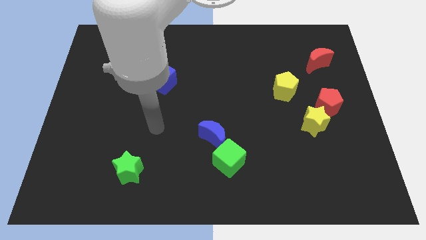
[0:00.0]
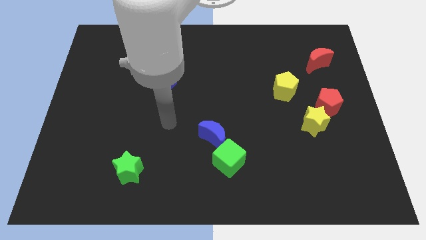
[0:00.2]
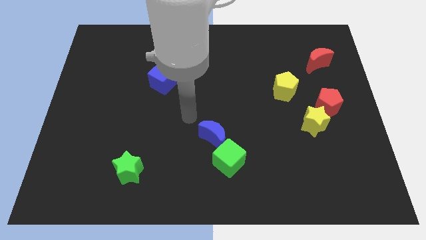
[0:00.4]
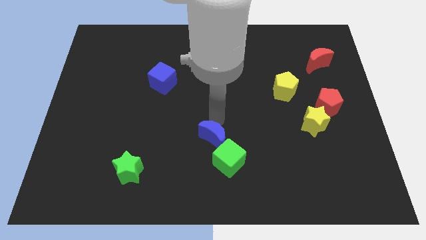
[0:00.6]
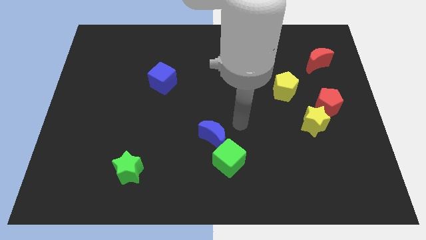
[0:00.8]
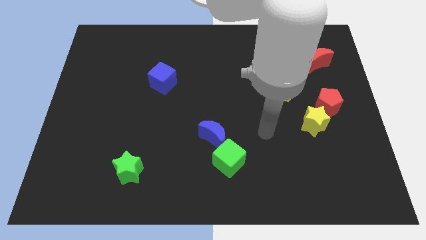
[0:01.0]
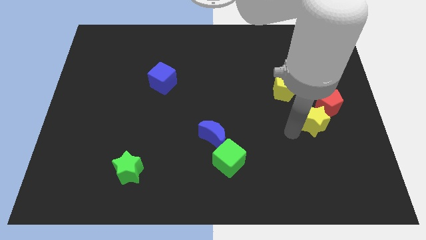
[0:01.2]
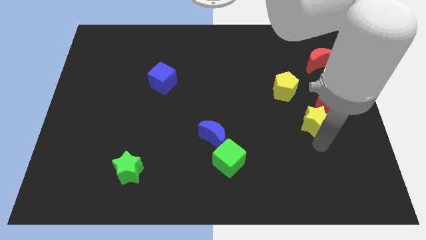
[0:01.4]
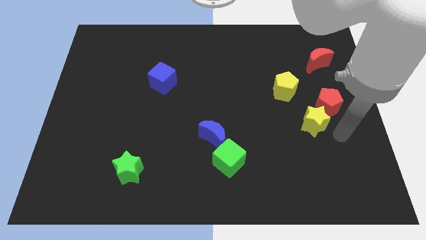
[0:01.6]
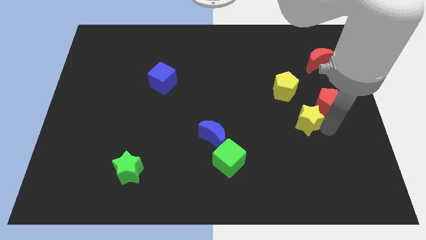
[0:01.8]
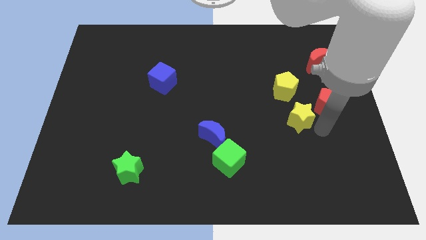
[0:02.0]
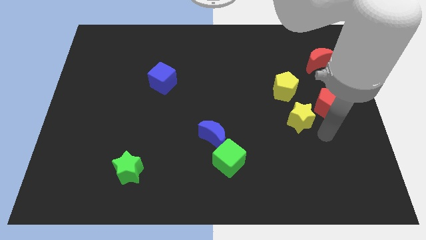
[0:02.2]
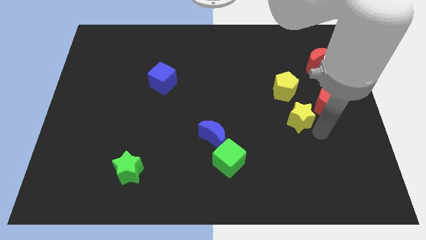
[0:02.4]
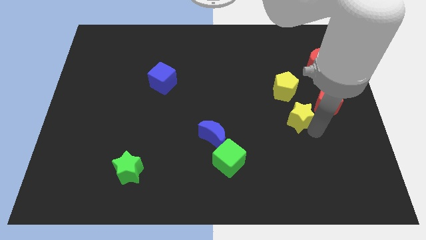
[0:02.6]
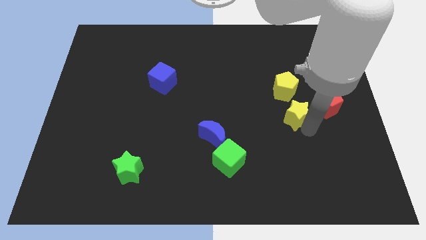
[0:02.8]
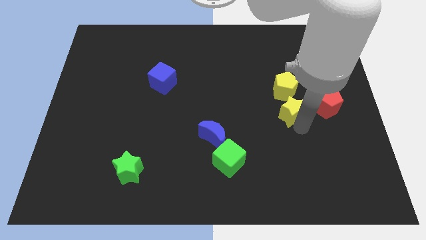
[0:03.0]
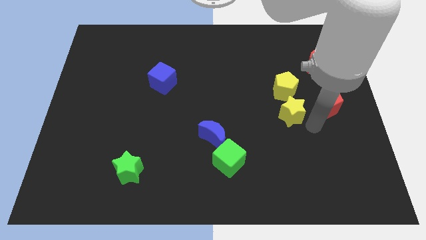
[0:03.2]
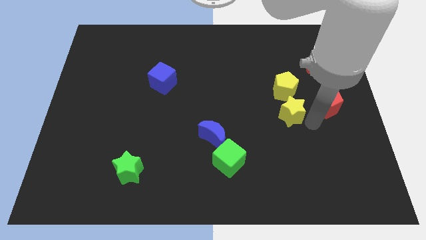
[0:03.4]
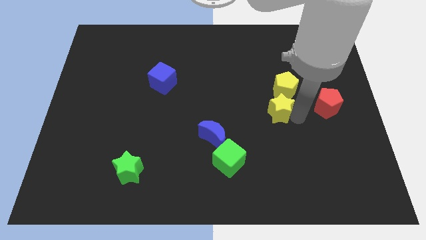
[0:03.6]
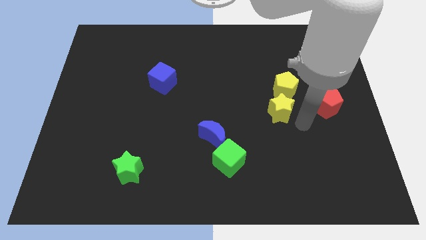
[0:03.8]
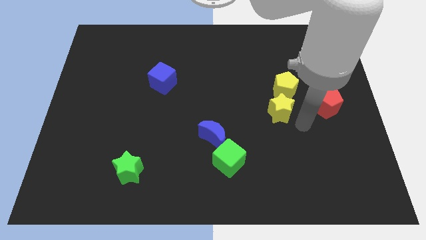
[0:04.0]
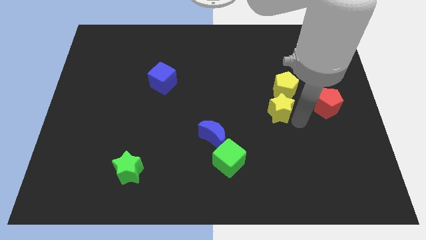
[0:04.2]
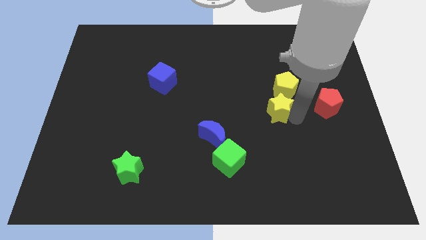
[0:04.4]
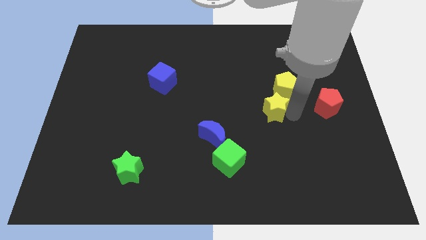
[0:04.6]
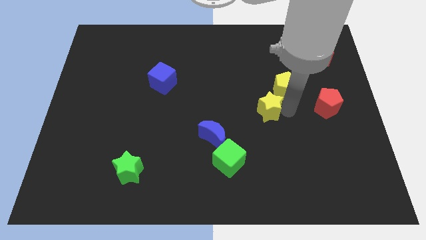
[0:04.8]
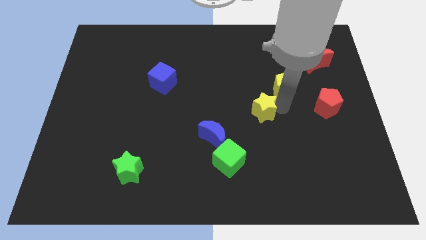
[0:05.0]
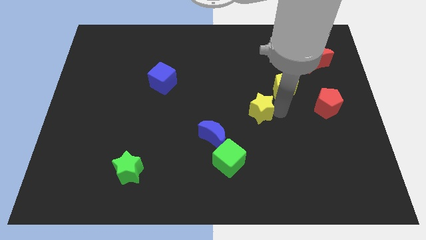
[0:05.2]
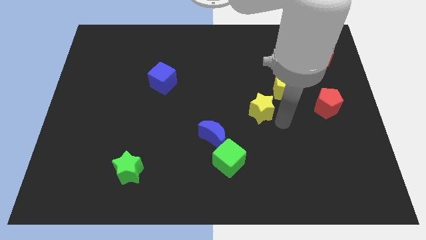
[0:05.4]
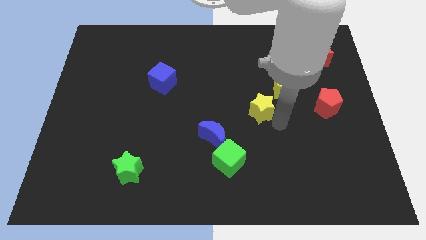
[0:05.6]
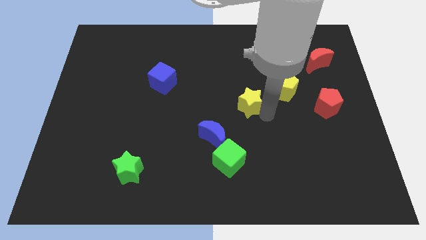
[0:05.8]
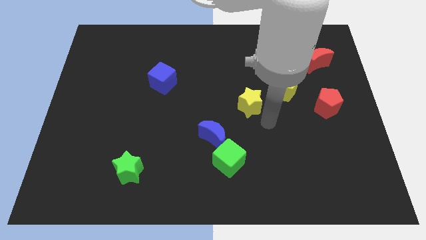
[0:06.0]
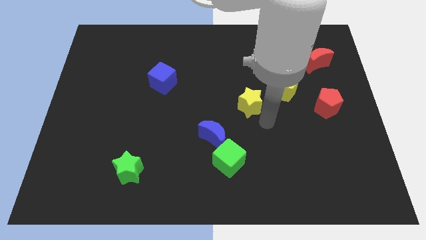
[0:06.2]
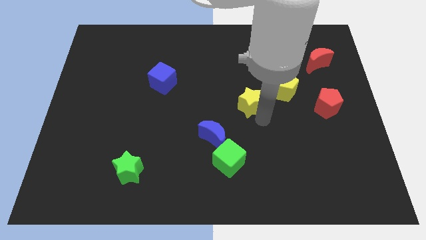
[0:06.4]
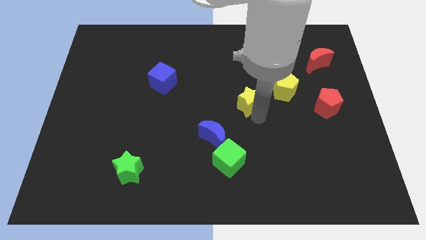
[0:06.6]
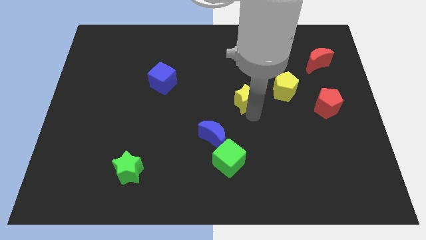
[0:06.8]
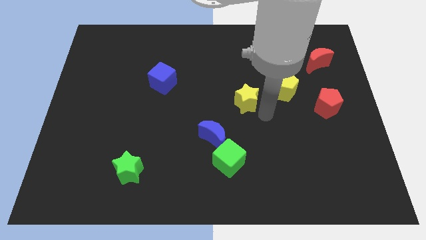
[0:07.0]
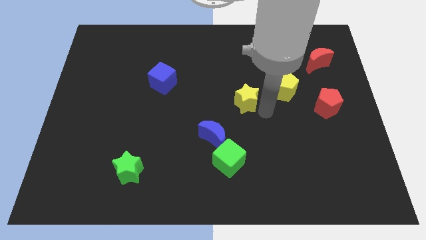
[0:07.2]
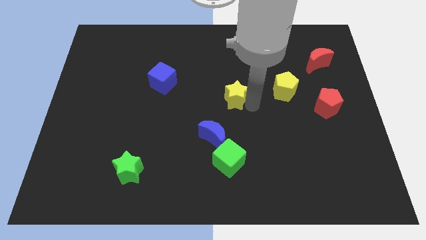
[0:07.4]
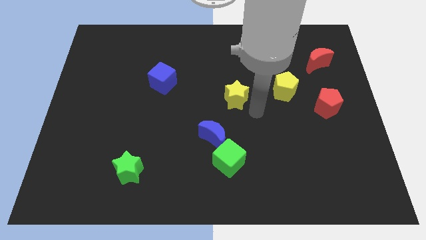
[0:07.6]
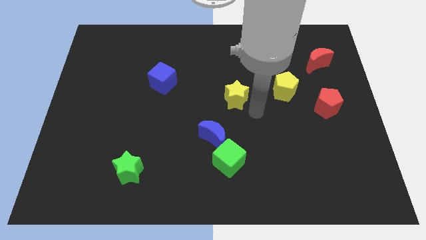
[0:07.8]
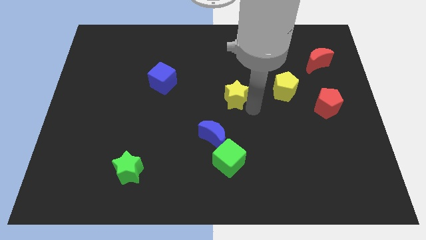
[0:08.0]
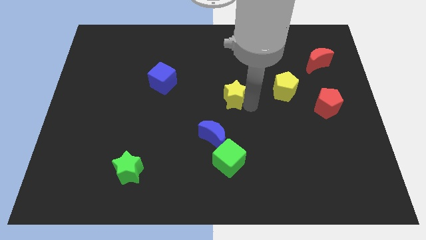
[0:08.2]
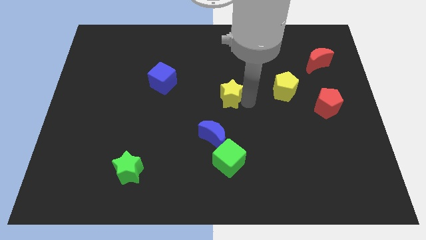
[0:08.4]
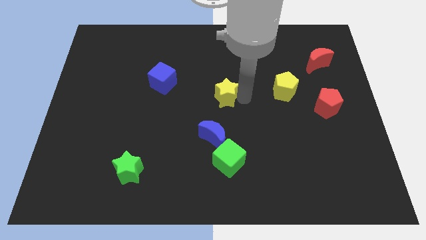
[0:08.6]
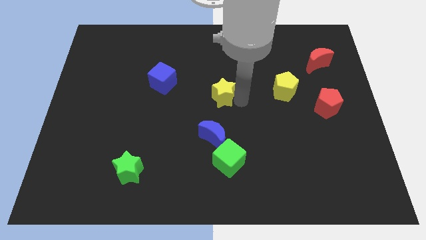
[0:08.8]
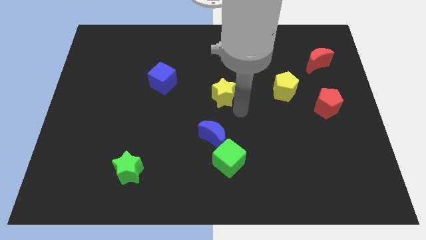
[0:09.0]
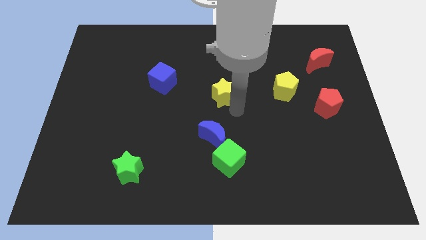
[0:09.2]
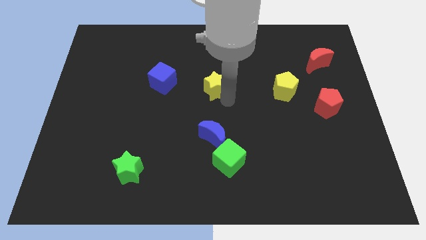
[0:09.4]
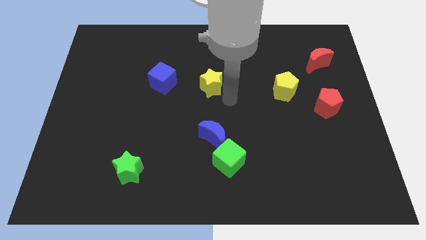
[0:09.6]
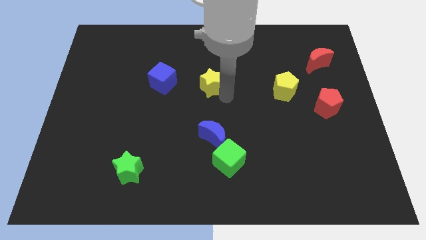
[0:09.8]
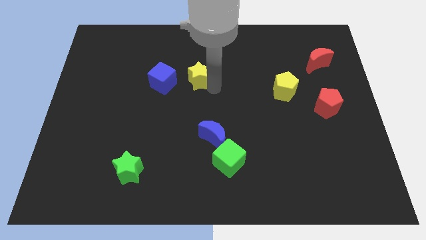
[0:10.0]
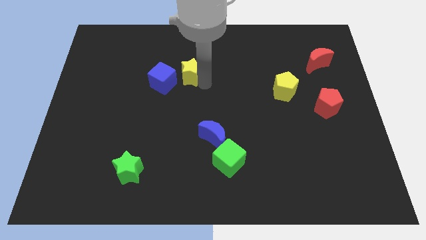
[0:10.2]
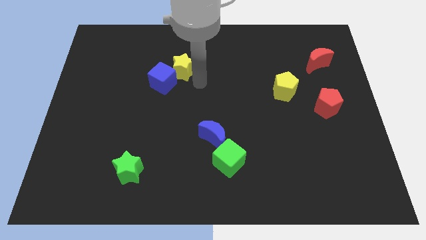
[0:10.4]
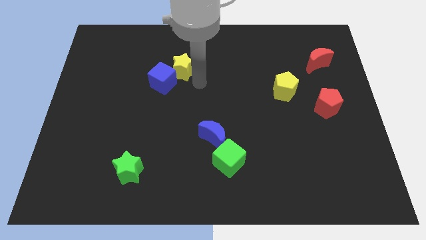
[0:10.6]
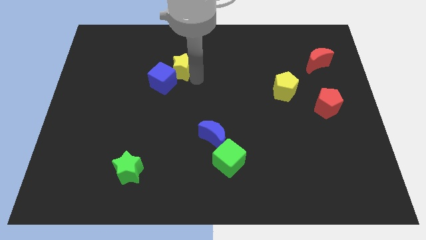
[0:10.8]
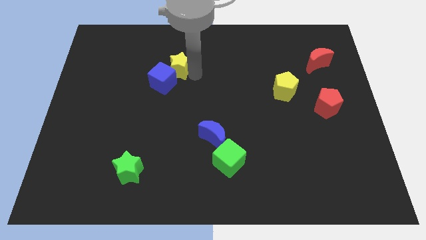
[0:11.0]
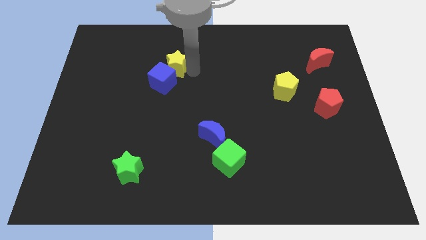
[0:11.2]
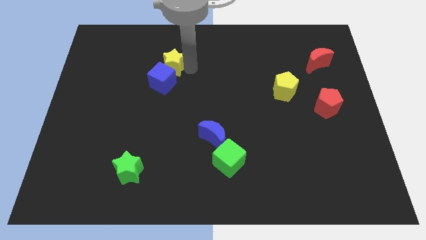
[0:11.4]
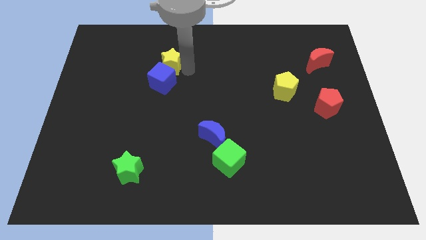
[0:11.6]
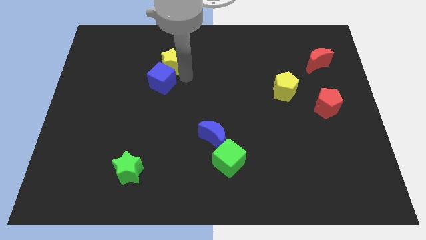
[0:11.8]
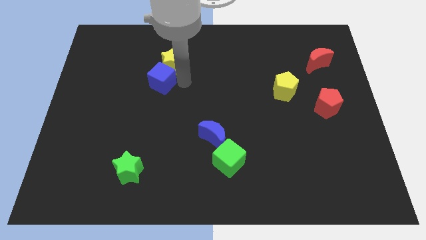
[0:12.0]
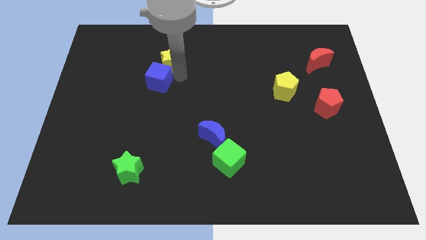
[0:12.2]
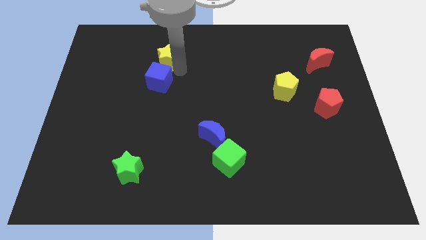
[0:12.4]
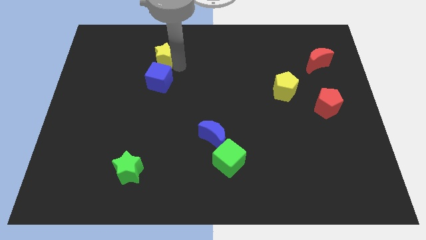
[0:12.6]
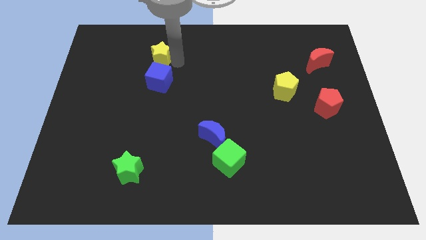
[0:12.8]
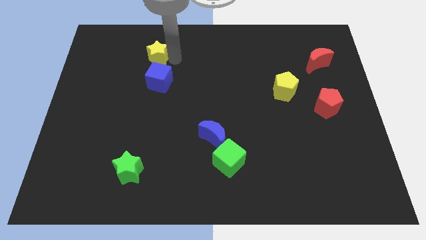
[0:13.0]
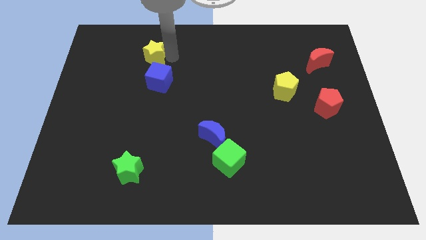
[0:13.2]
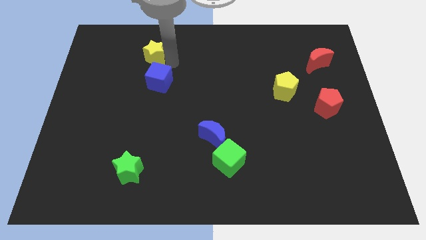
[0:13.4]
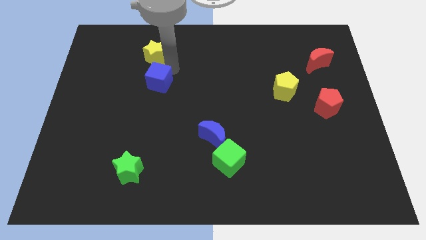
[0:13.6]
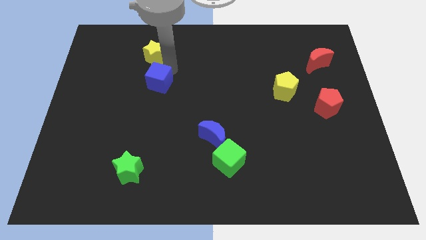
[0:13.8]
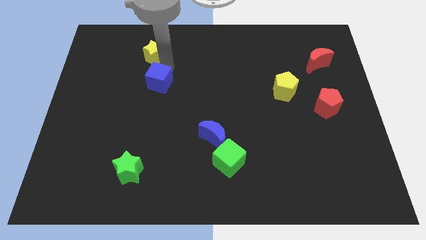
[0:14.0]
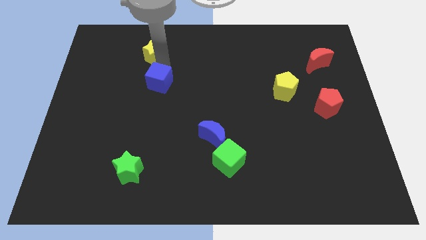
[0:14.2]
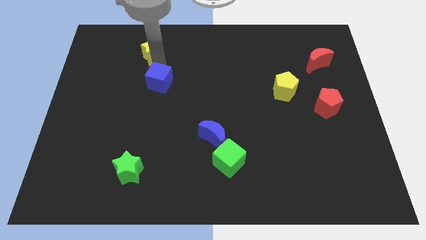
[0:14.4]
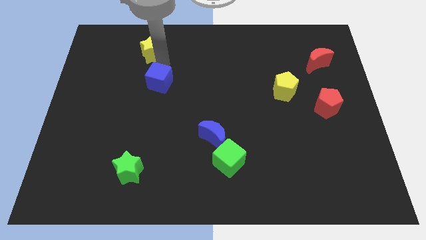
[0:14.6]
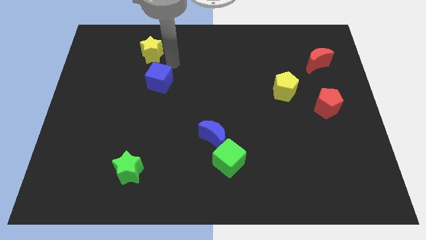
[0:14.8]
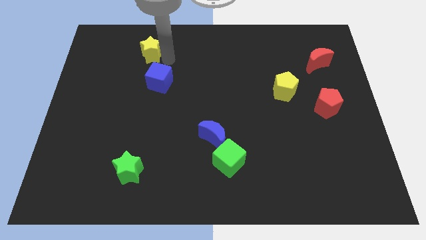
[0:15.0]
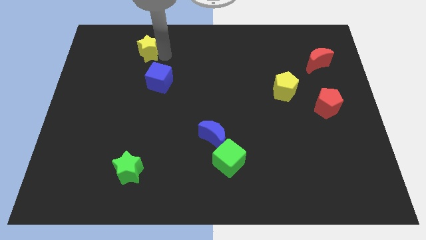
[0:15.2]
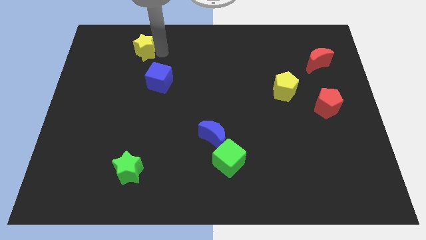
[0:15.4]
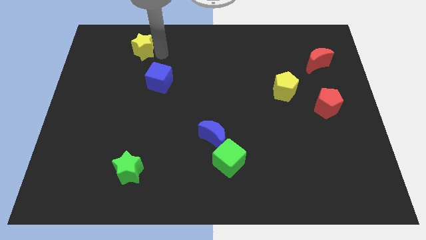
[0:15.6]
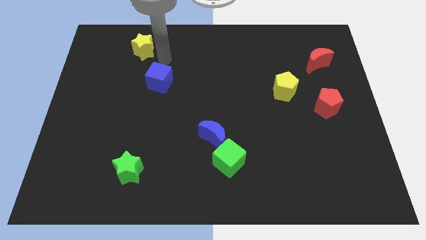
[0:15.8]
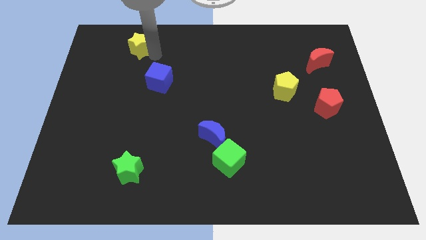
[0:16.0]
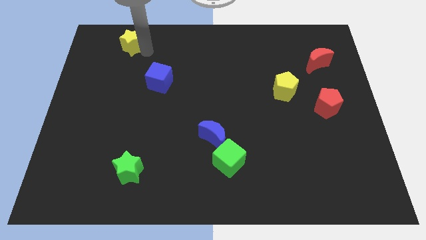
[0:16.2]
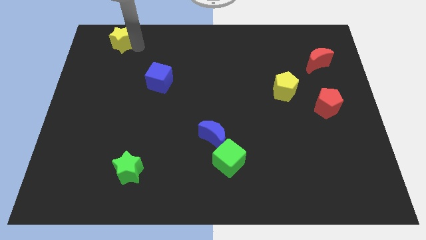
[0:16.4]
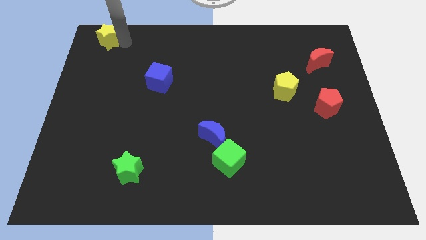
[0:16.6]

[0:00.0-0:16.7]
push the yellow star to the top left of the board
